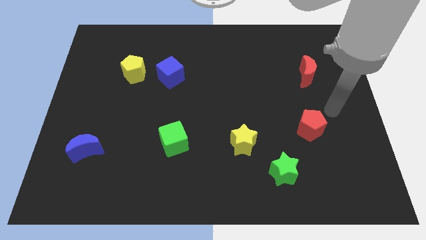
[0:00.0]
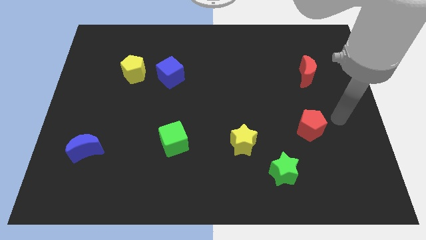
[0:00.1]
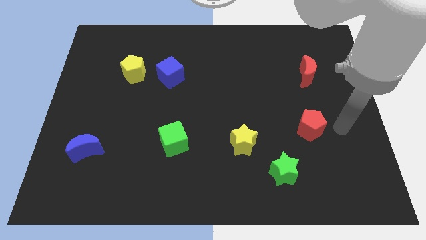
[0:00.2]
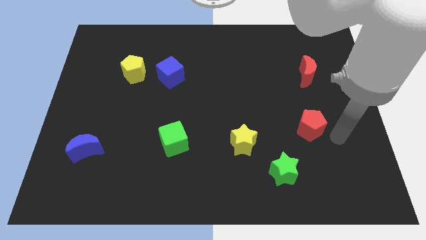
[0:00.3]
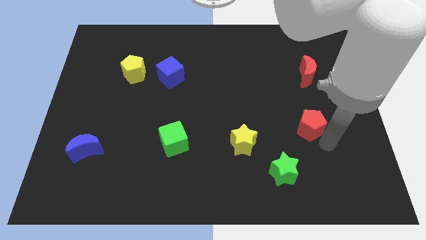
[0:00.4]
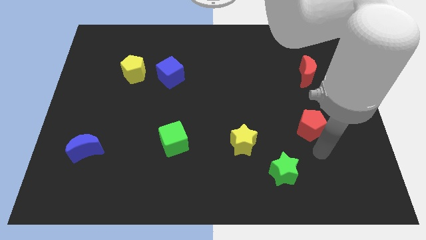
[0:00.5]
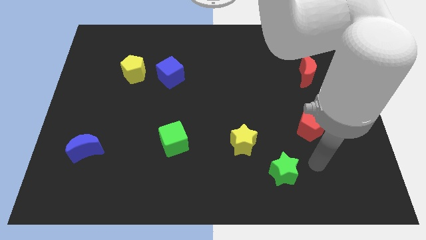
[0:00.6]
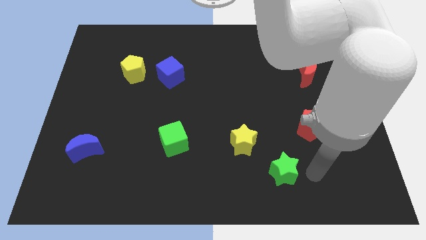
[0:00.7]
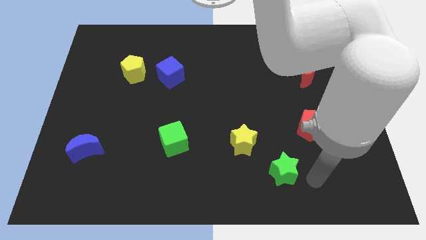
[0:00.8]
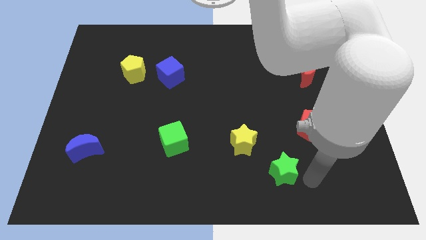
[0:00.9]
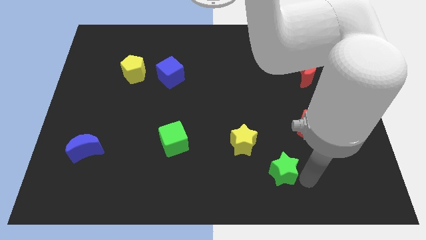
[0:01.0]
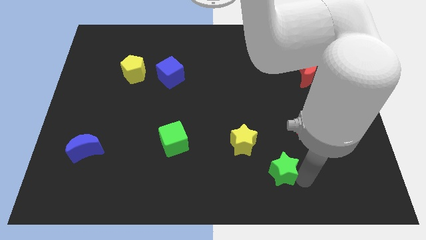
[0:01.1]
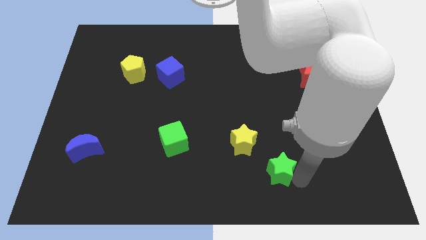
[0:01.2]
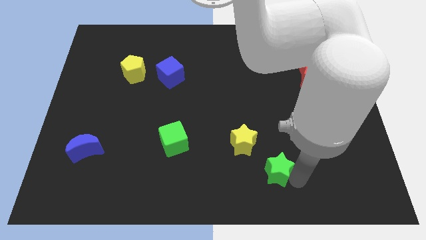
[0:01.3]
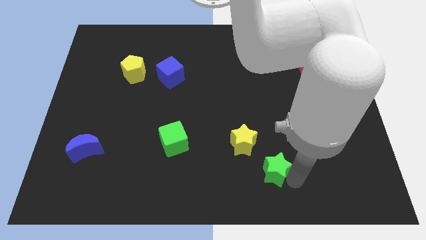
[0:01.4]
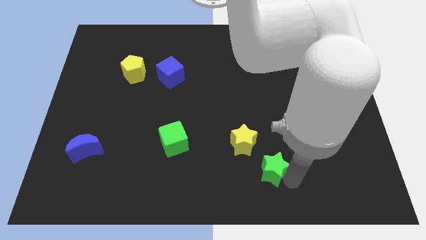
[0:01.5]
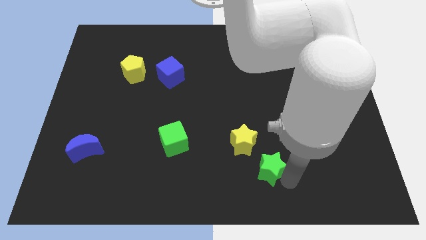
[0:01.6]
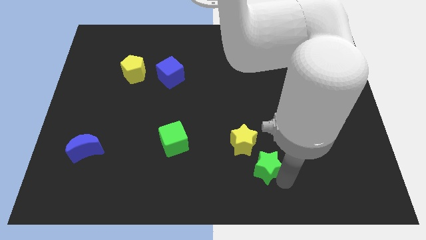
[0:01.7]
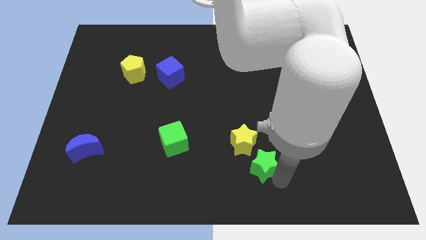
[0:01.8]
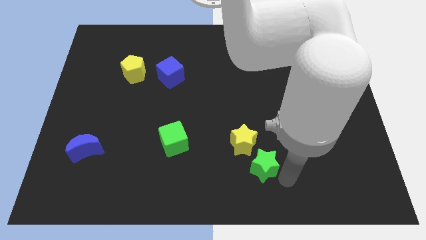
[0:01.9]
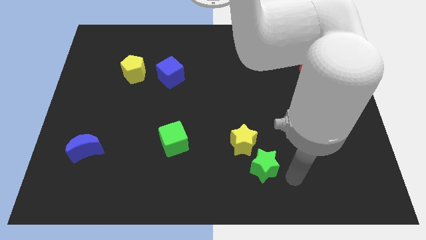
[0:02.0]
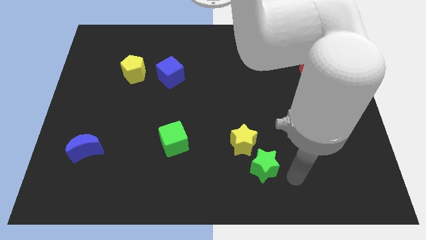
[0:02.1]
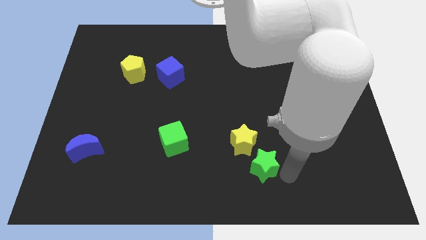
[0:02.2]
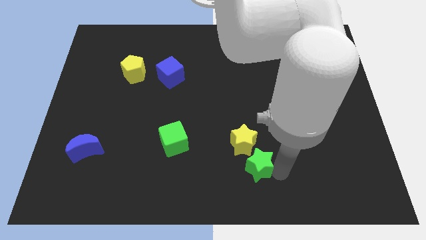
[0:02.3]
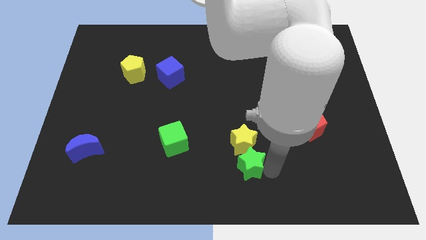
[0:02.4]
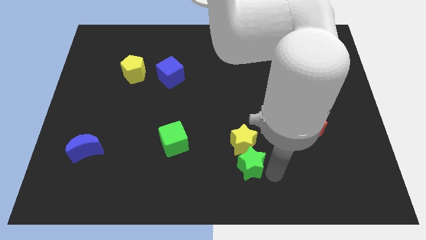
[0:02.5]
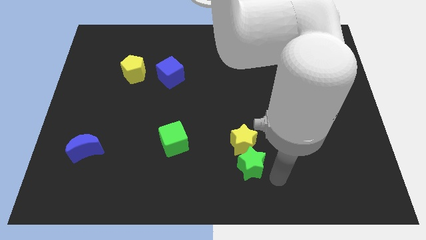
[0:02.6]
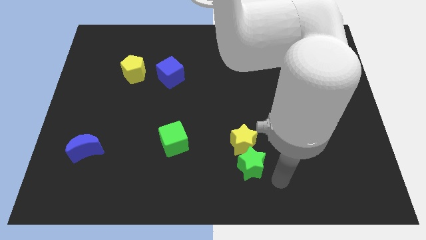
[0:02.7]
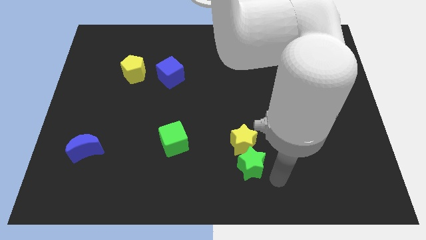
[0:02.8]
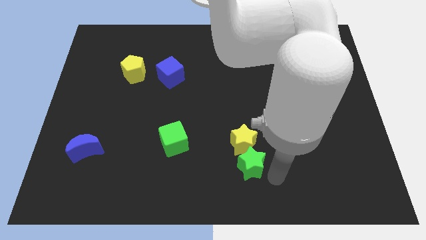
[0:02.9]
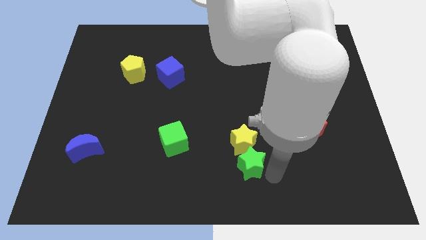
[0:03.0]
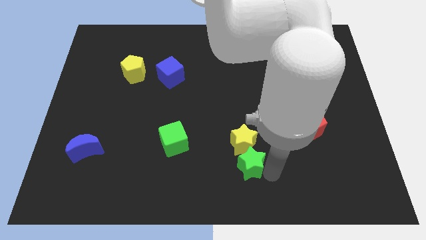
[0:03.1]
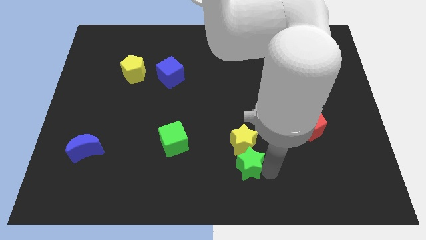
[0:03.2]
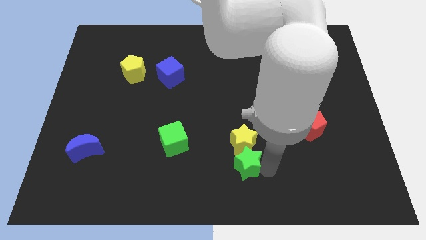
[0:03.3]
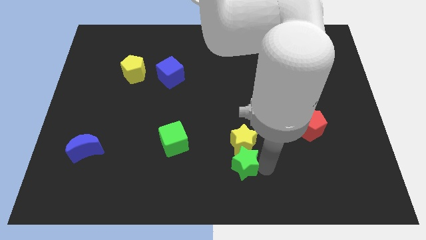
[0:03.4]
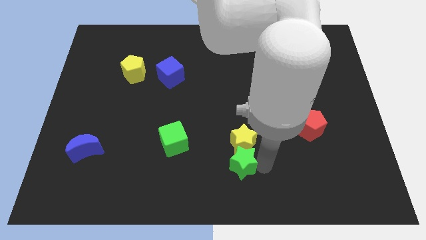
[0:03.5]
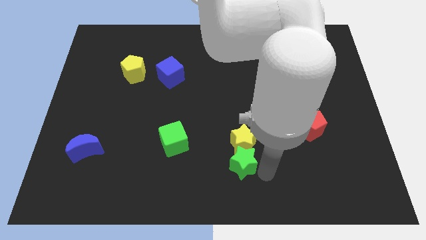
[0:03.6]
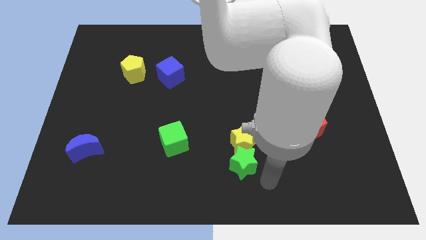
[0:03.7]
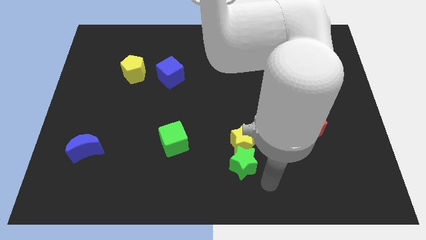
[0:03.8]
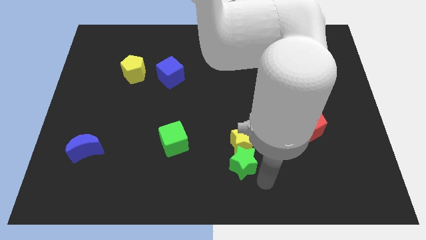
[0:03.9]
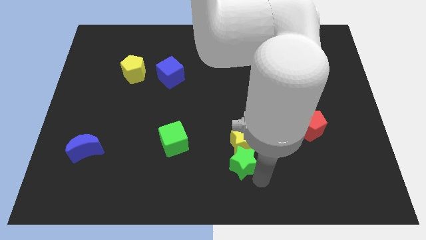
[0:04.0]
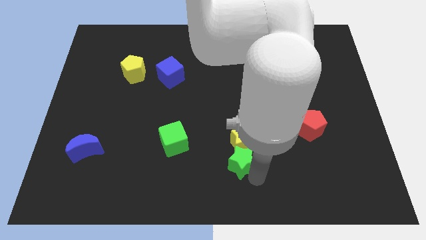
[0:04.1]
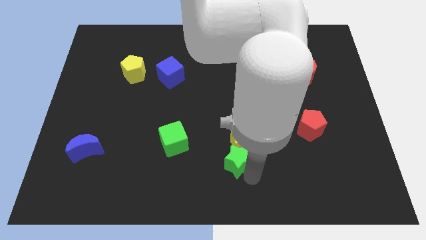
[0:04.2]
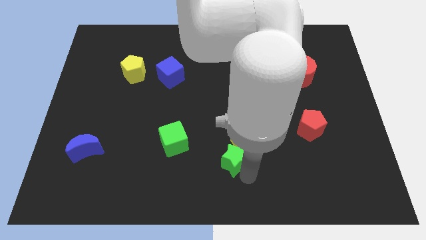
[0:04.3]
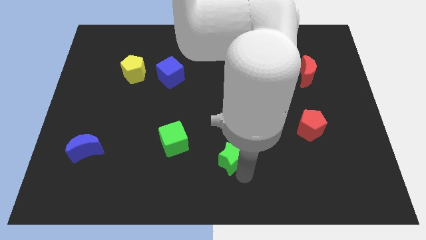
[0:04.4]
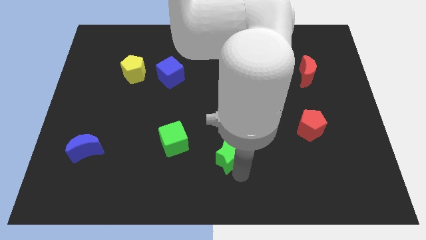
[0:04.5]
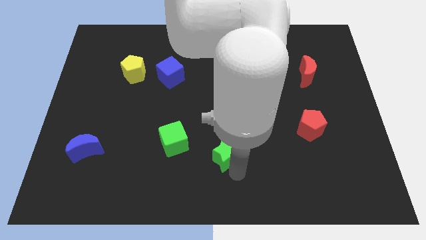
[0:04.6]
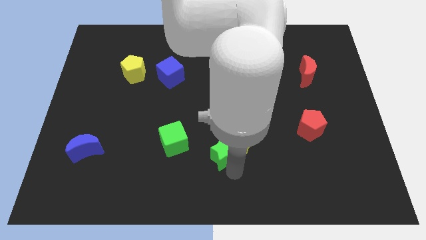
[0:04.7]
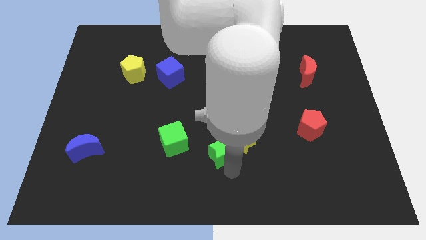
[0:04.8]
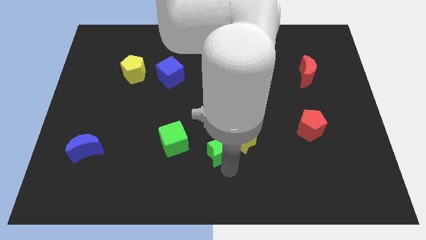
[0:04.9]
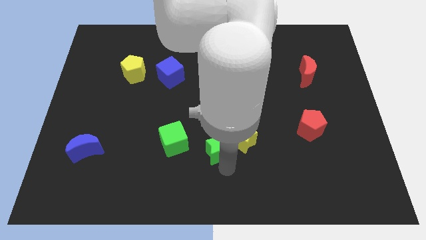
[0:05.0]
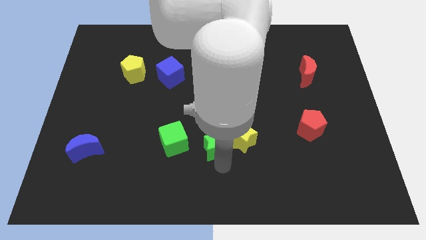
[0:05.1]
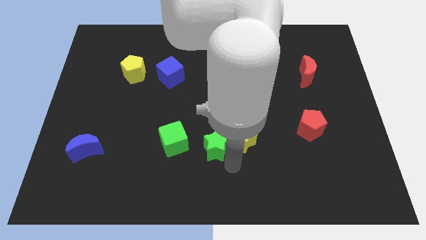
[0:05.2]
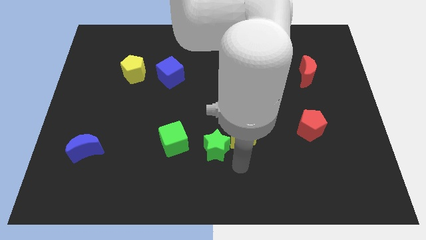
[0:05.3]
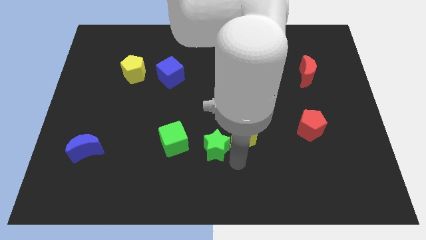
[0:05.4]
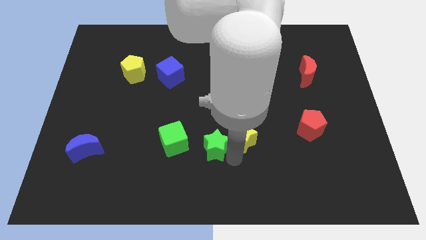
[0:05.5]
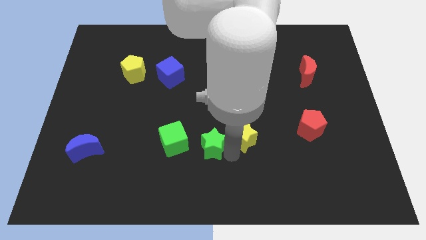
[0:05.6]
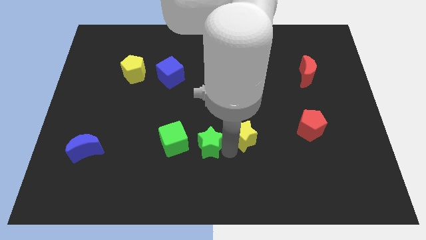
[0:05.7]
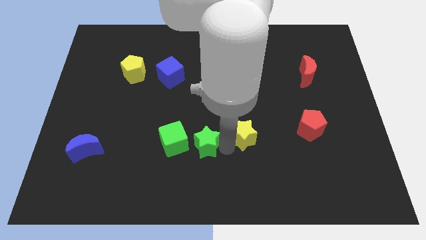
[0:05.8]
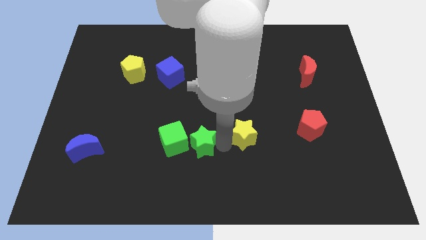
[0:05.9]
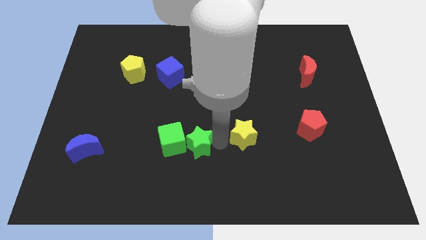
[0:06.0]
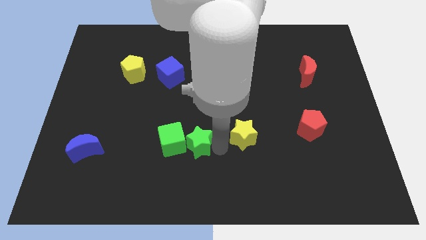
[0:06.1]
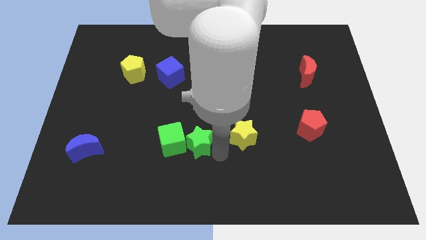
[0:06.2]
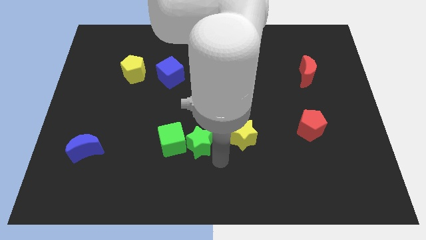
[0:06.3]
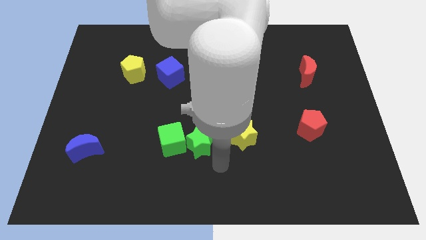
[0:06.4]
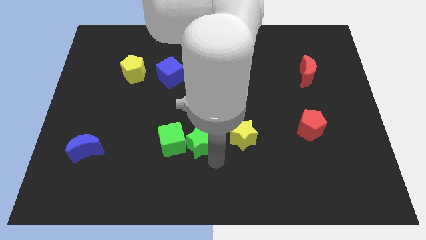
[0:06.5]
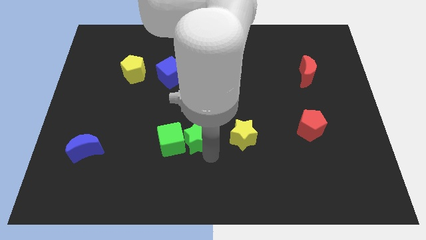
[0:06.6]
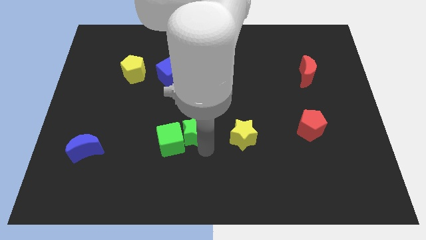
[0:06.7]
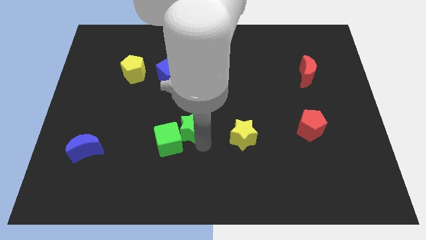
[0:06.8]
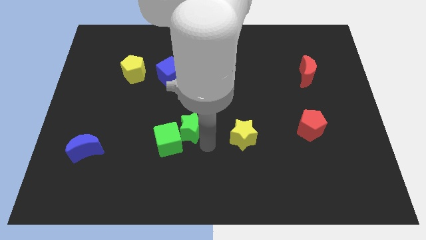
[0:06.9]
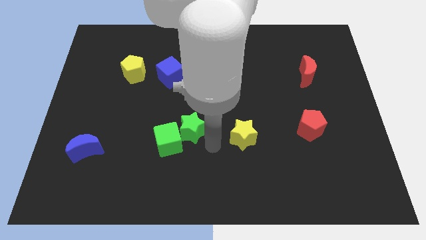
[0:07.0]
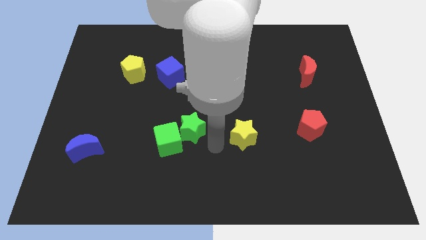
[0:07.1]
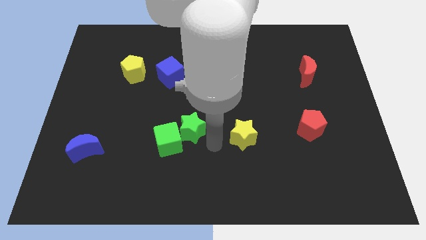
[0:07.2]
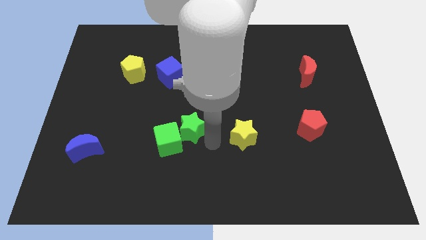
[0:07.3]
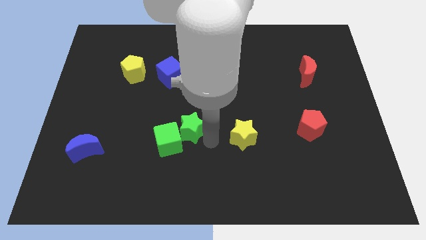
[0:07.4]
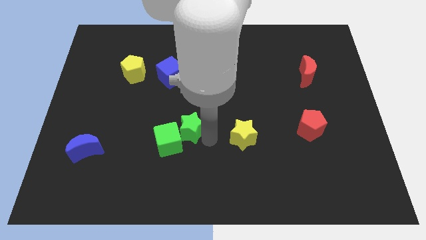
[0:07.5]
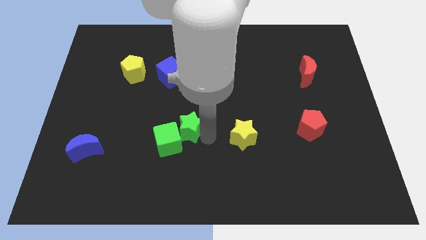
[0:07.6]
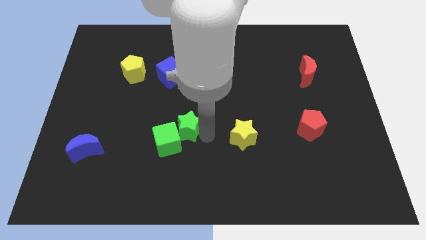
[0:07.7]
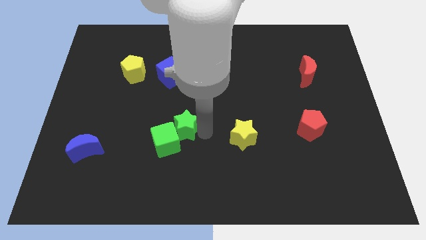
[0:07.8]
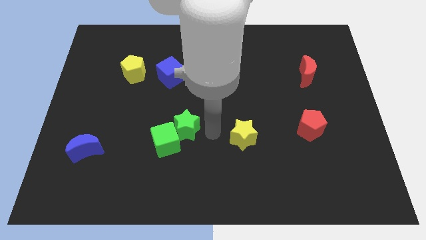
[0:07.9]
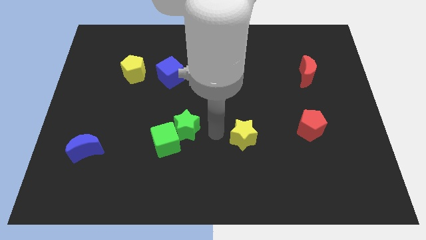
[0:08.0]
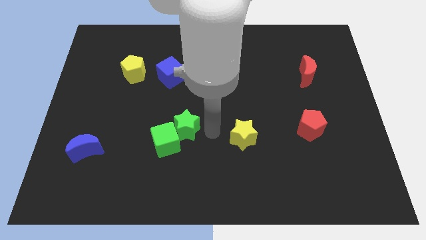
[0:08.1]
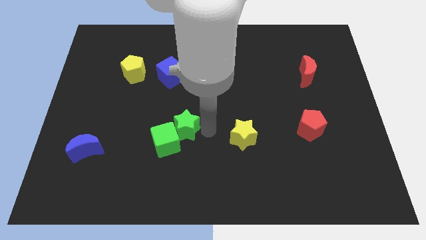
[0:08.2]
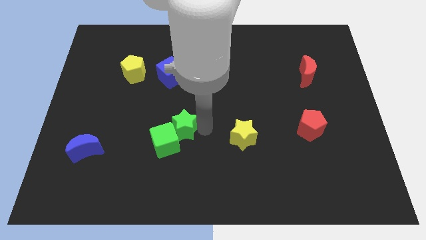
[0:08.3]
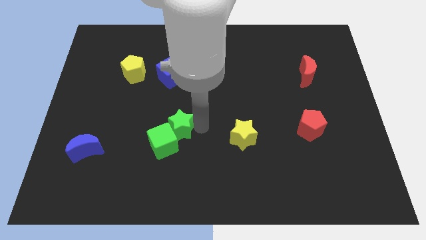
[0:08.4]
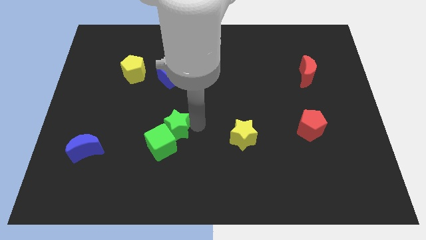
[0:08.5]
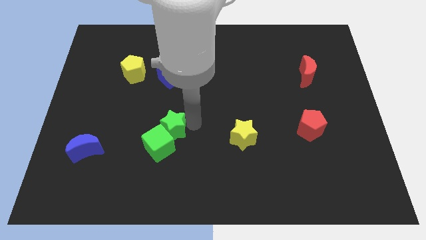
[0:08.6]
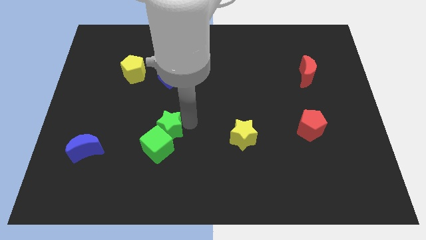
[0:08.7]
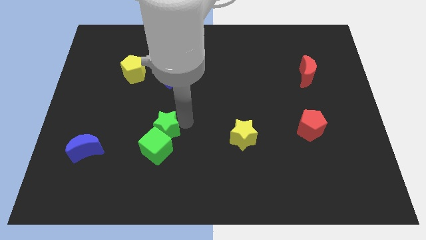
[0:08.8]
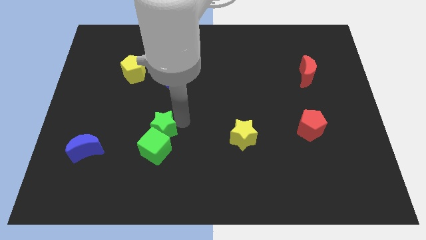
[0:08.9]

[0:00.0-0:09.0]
move the green star to the top left of the green cube
